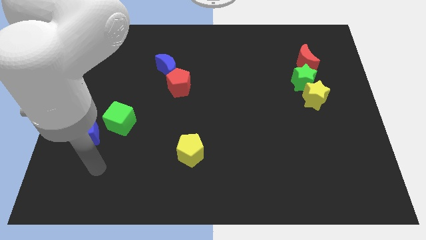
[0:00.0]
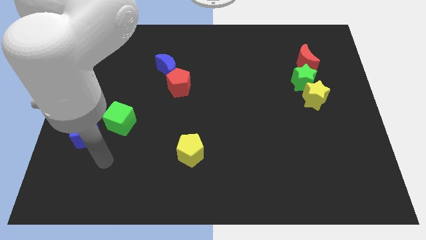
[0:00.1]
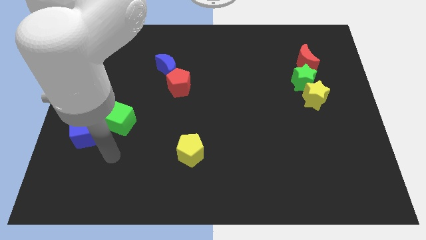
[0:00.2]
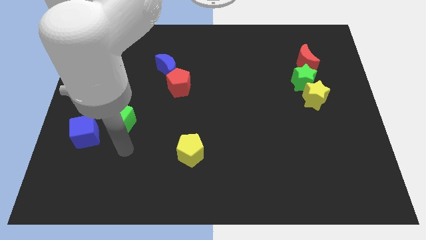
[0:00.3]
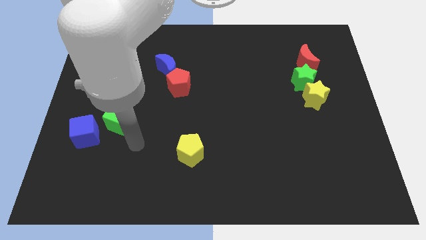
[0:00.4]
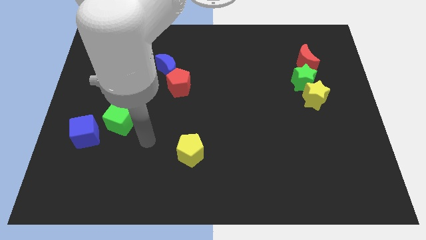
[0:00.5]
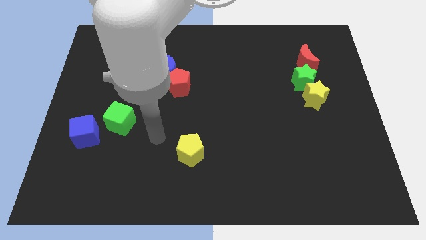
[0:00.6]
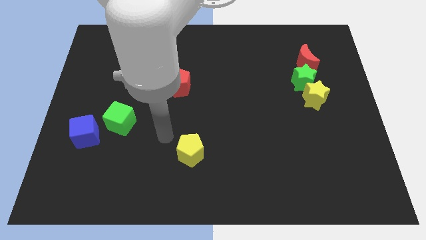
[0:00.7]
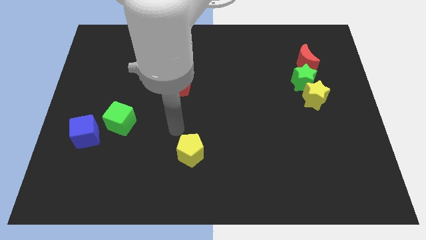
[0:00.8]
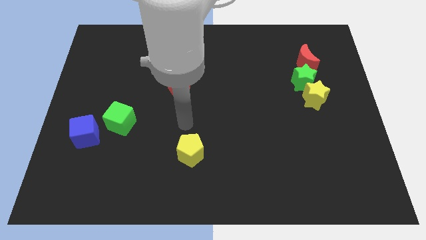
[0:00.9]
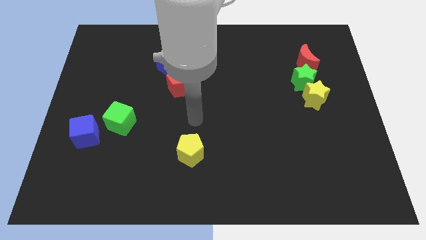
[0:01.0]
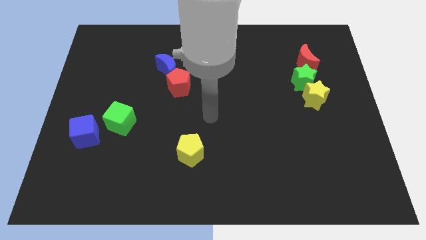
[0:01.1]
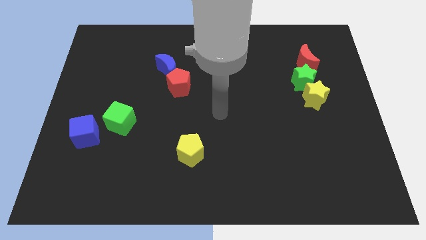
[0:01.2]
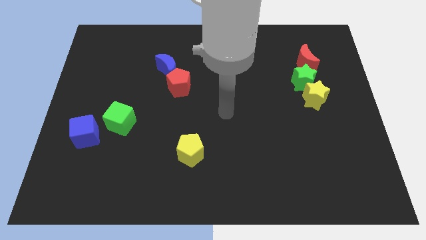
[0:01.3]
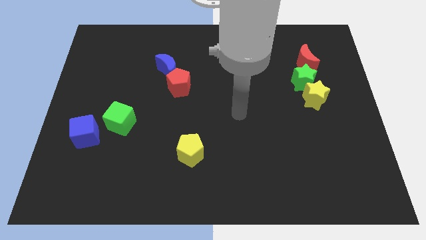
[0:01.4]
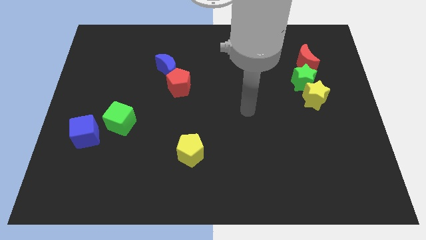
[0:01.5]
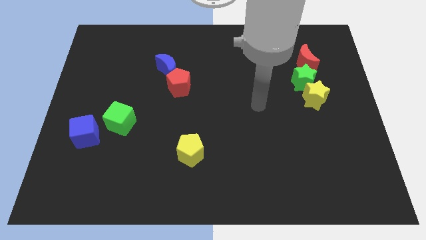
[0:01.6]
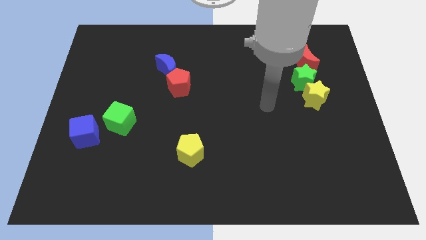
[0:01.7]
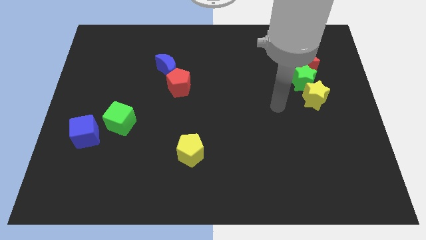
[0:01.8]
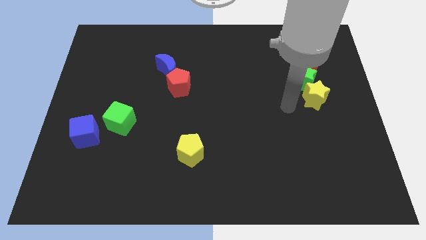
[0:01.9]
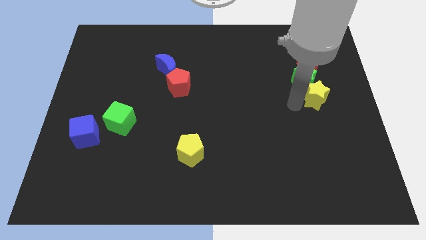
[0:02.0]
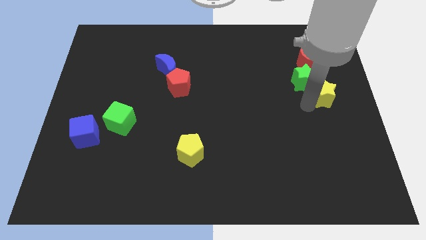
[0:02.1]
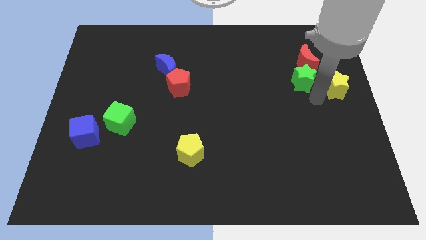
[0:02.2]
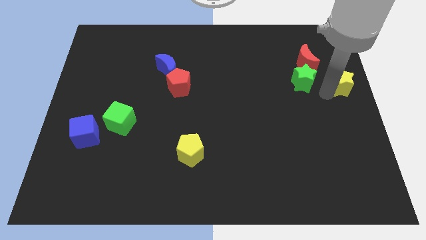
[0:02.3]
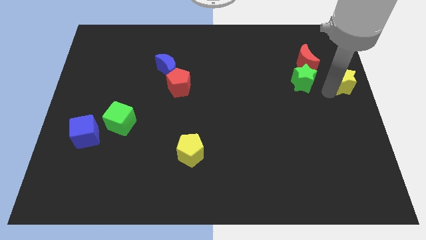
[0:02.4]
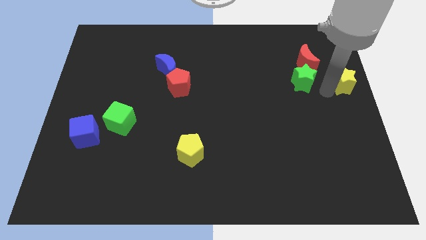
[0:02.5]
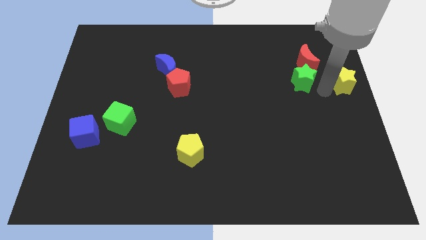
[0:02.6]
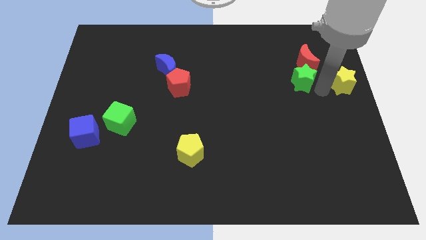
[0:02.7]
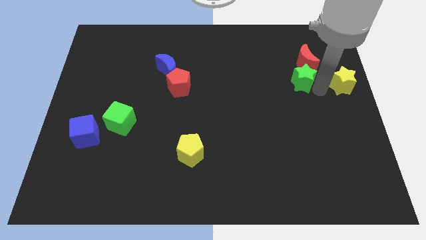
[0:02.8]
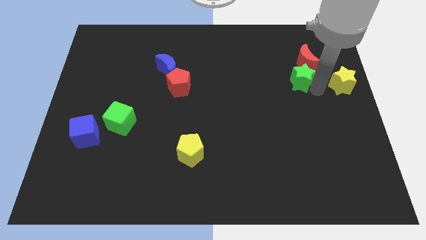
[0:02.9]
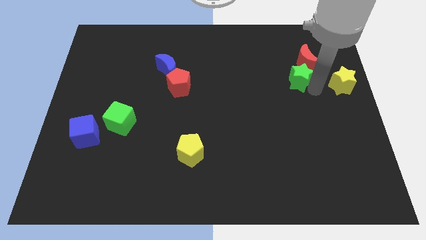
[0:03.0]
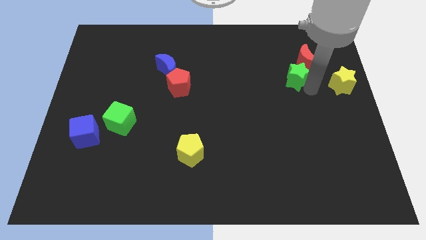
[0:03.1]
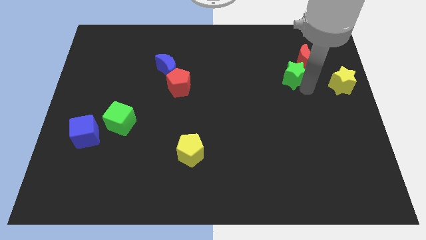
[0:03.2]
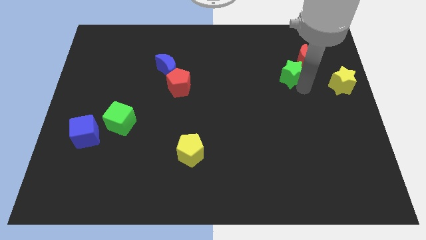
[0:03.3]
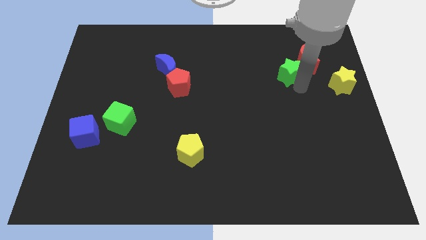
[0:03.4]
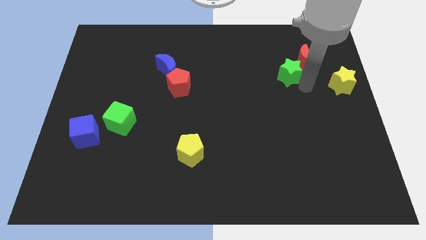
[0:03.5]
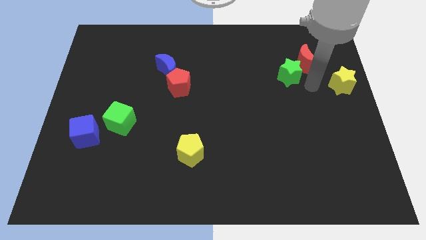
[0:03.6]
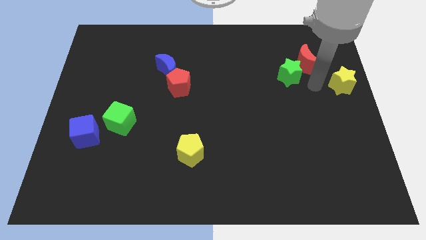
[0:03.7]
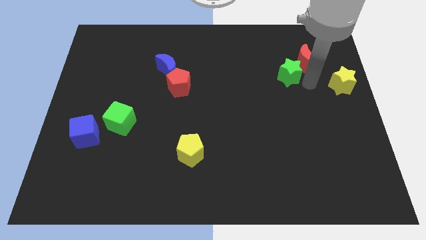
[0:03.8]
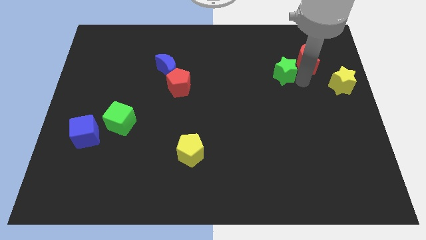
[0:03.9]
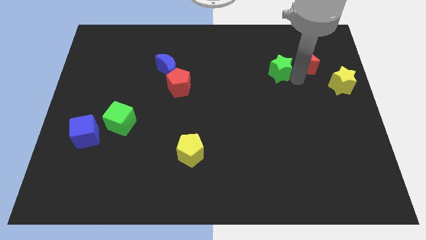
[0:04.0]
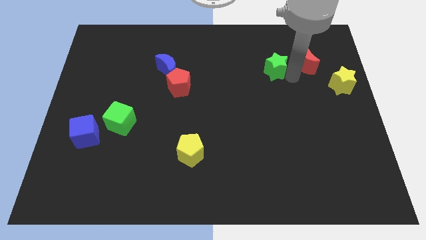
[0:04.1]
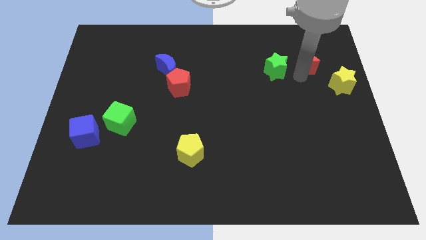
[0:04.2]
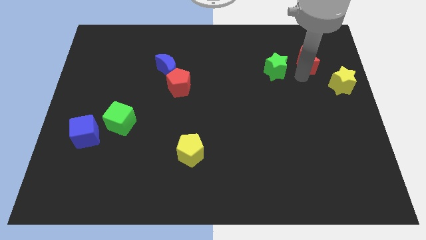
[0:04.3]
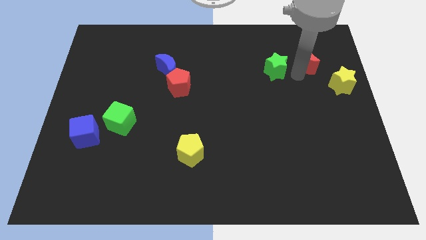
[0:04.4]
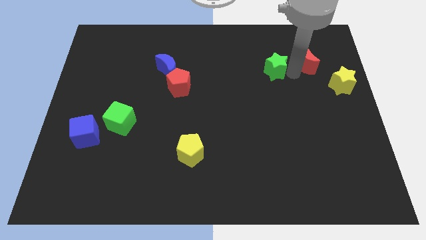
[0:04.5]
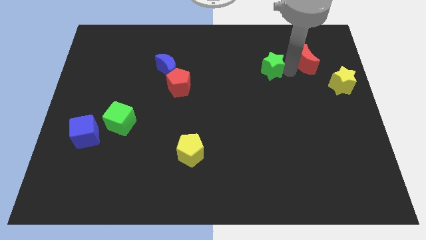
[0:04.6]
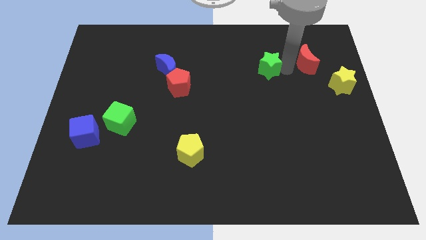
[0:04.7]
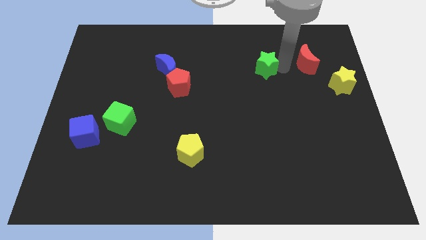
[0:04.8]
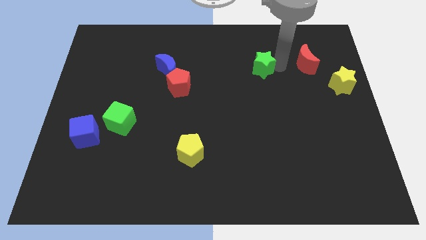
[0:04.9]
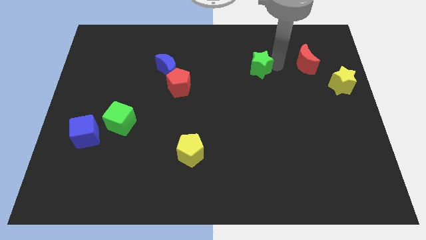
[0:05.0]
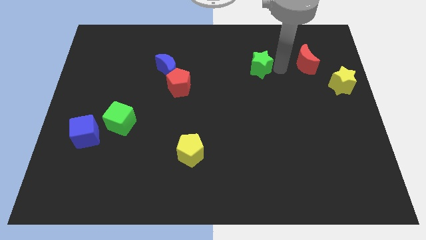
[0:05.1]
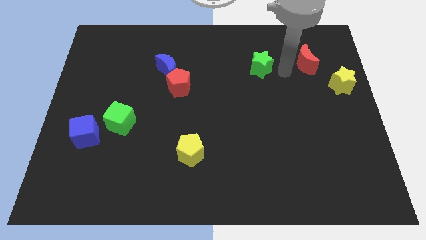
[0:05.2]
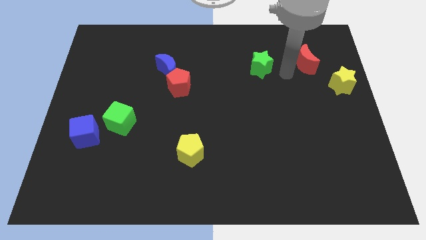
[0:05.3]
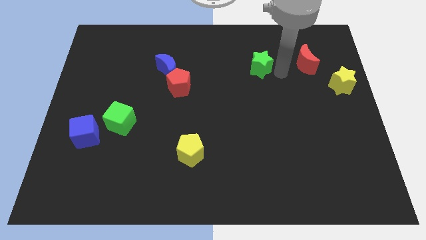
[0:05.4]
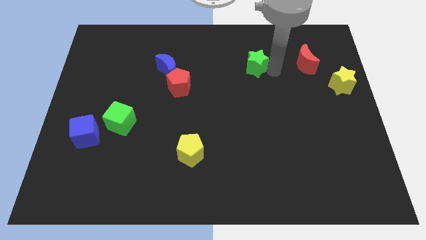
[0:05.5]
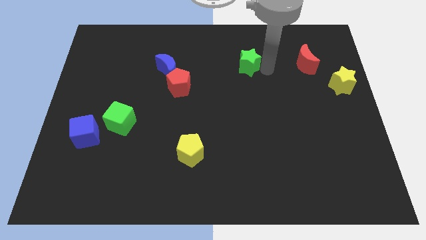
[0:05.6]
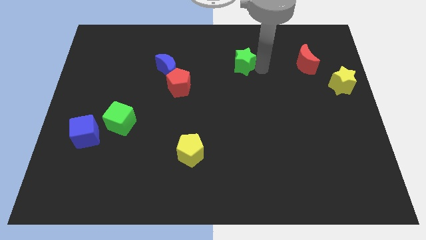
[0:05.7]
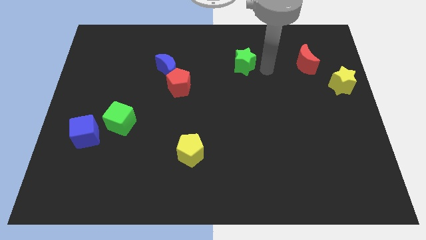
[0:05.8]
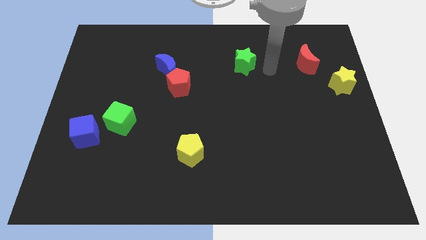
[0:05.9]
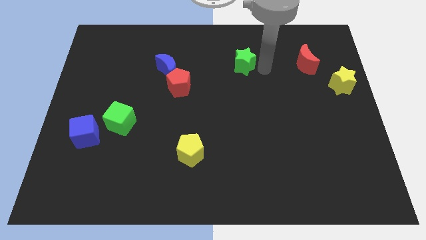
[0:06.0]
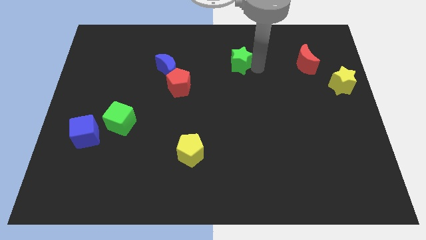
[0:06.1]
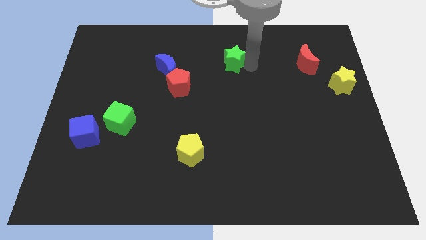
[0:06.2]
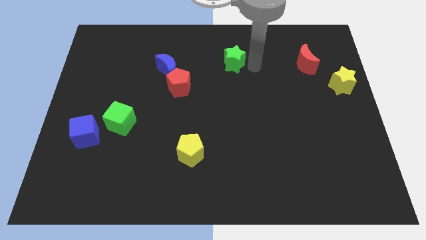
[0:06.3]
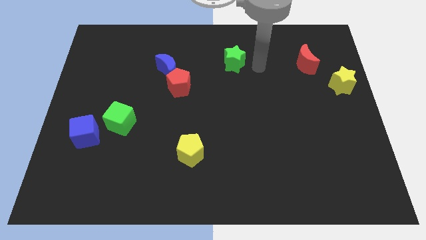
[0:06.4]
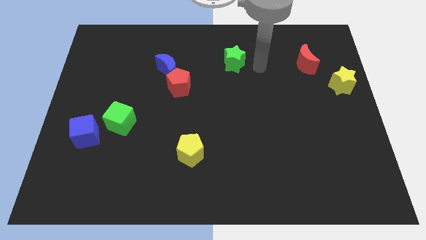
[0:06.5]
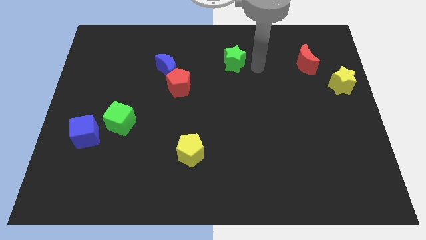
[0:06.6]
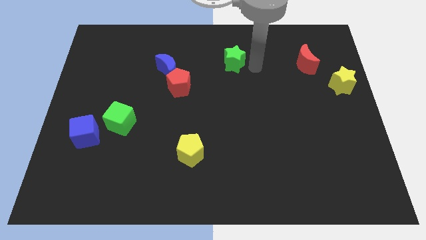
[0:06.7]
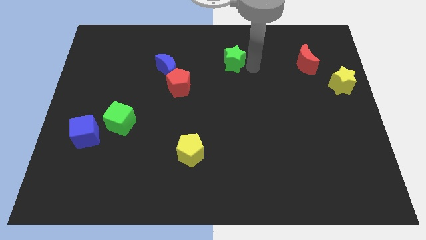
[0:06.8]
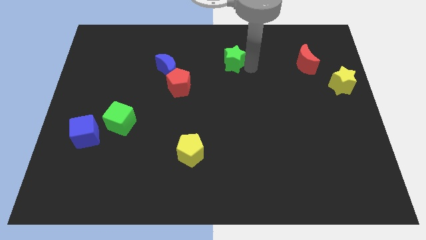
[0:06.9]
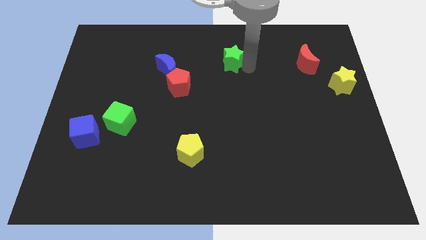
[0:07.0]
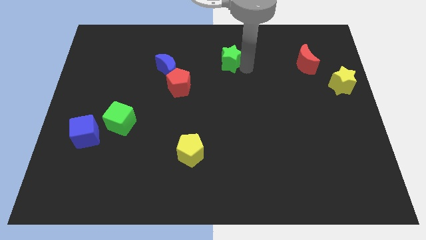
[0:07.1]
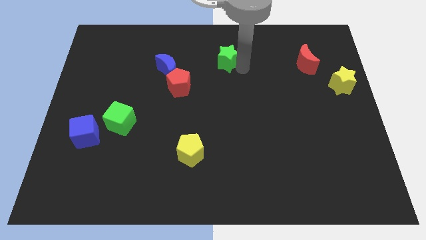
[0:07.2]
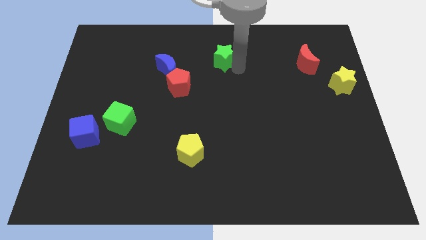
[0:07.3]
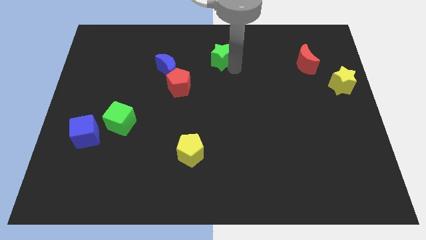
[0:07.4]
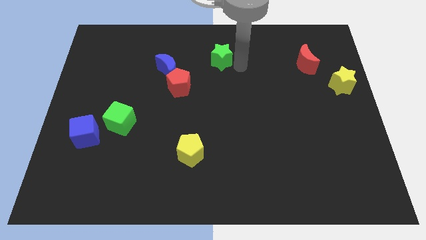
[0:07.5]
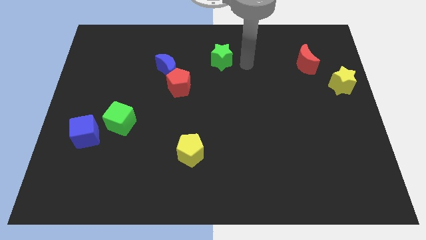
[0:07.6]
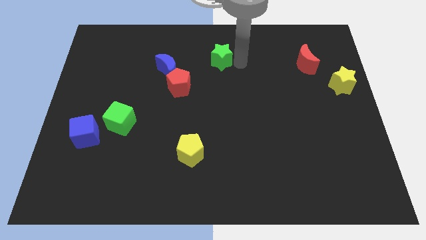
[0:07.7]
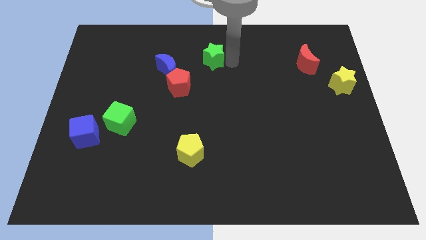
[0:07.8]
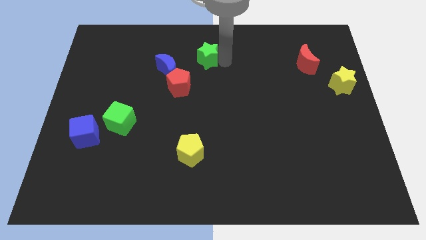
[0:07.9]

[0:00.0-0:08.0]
push the green star to the top right of the blue moon

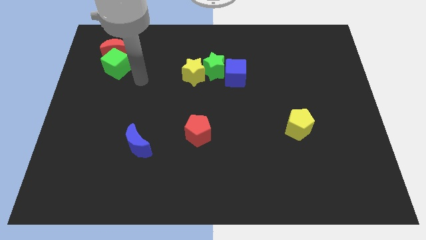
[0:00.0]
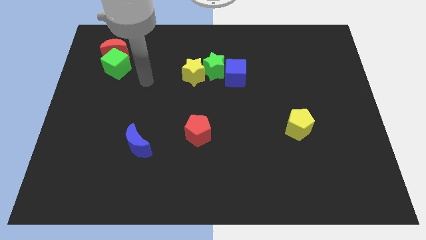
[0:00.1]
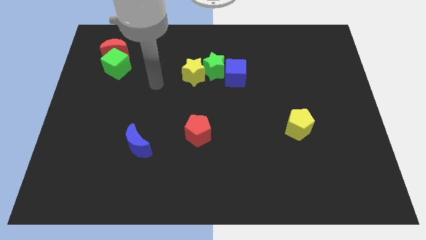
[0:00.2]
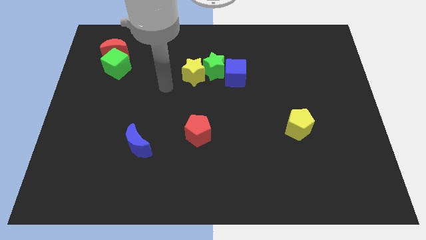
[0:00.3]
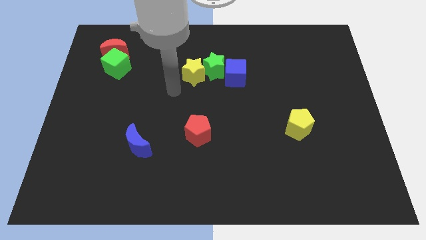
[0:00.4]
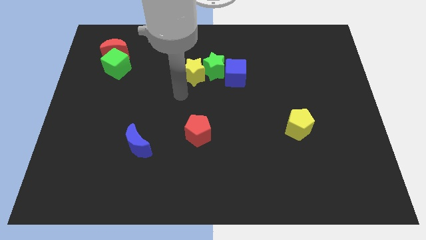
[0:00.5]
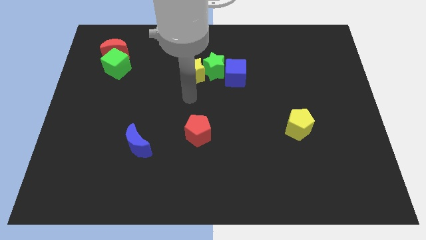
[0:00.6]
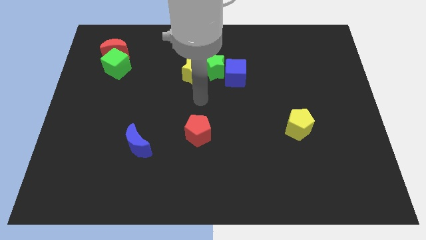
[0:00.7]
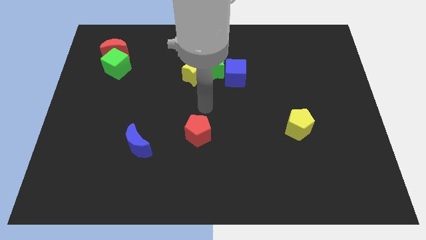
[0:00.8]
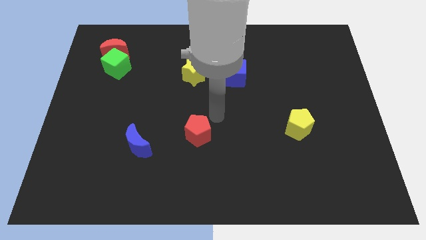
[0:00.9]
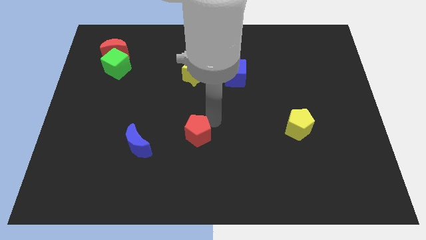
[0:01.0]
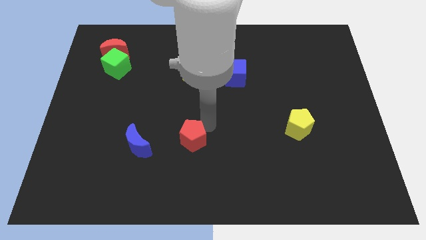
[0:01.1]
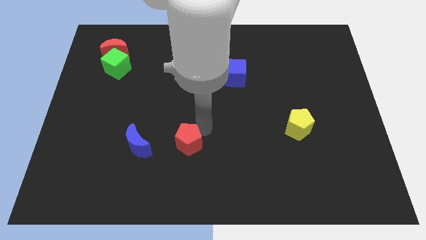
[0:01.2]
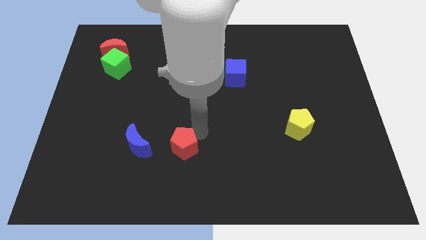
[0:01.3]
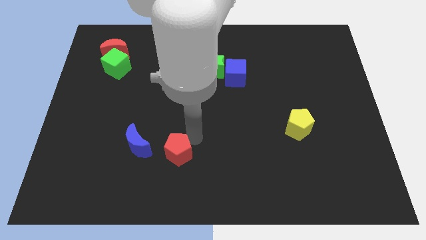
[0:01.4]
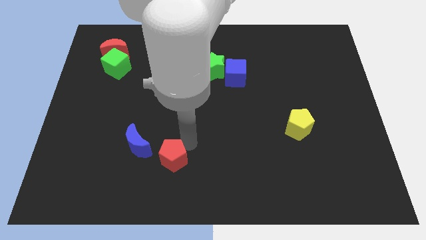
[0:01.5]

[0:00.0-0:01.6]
push the red pentagon diagonally down and to the right of the blue moon
